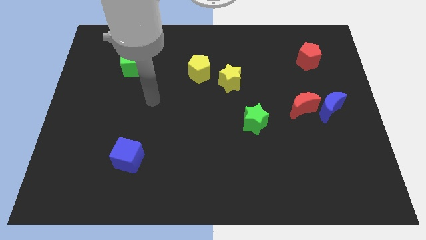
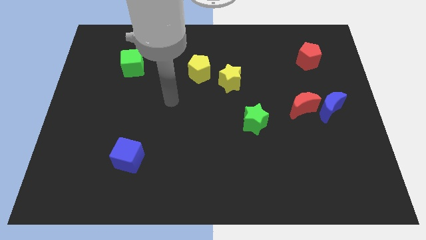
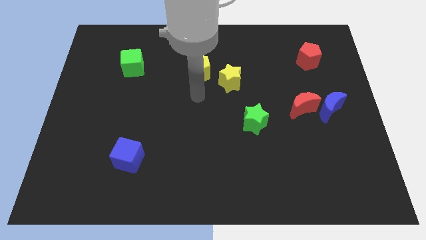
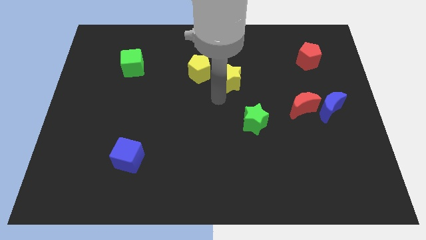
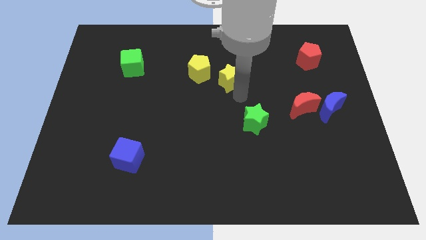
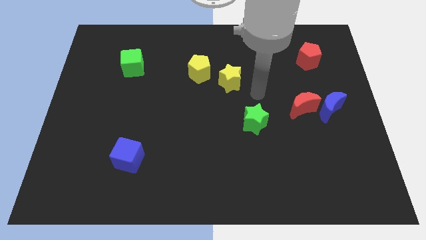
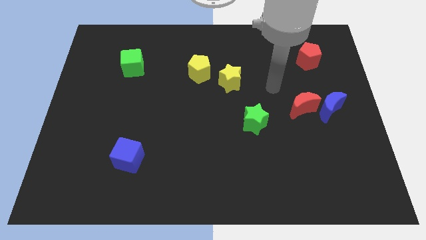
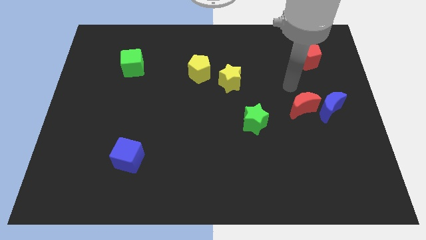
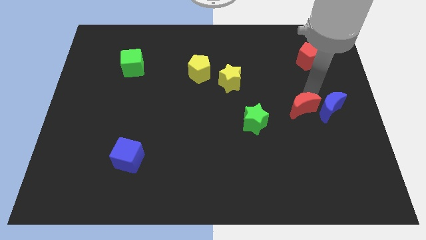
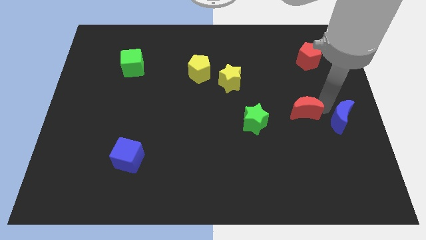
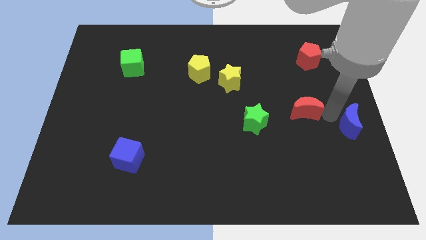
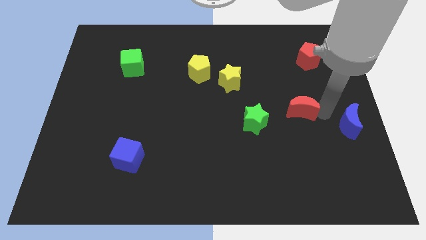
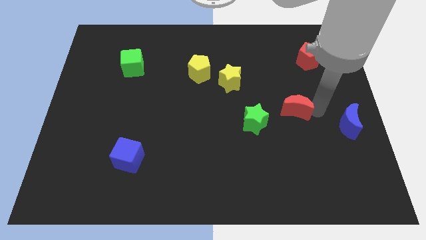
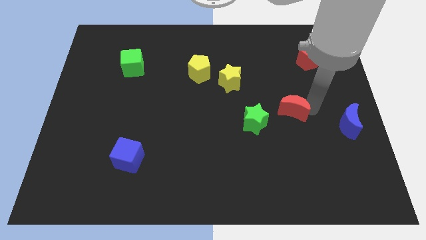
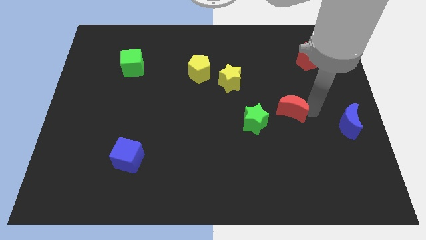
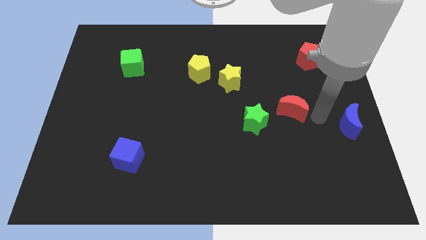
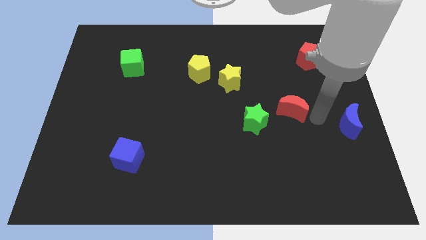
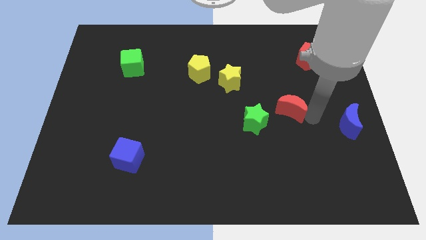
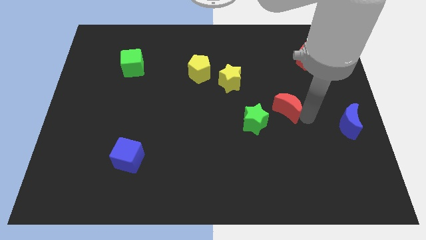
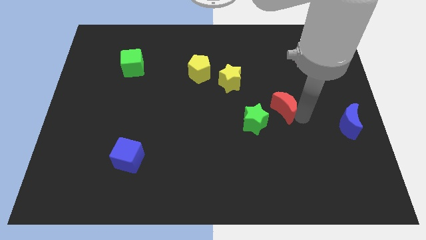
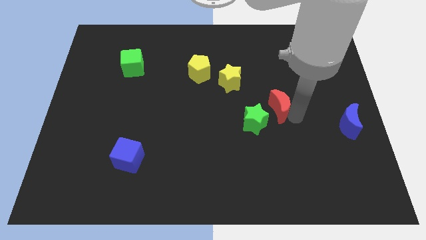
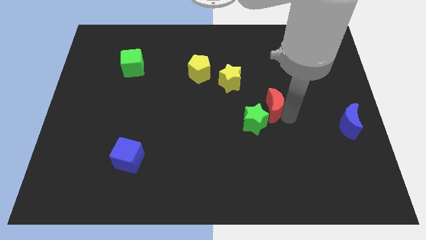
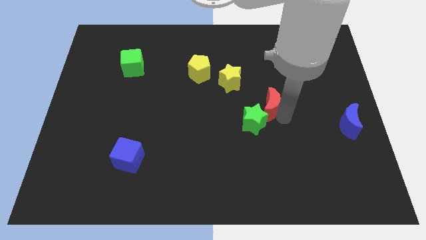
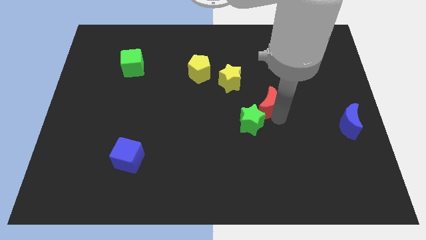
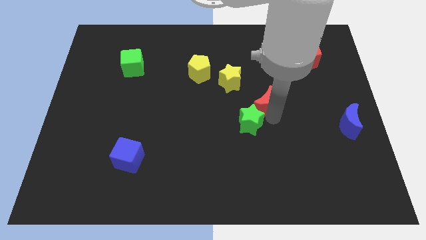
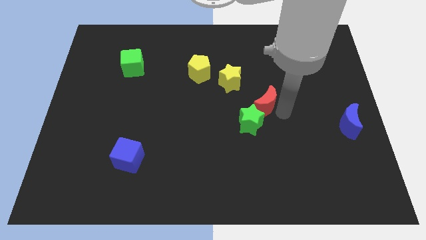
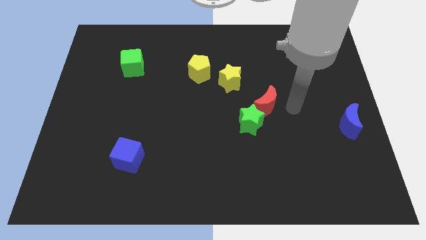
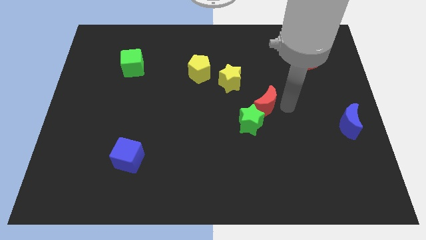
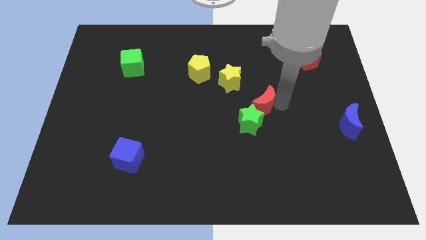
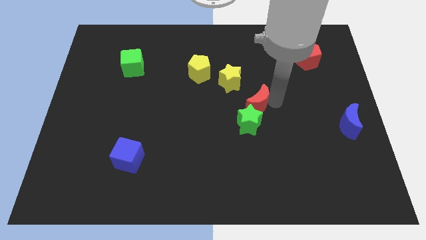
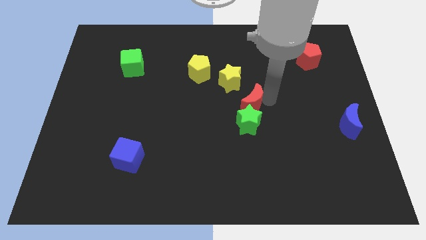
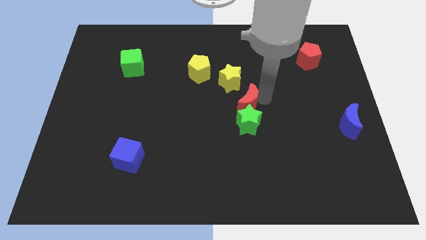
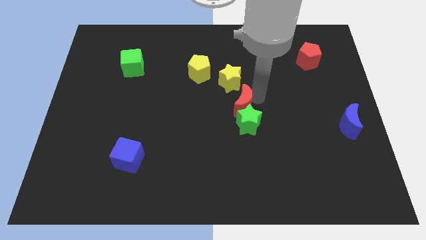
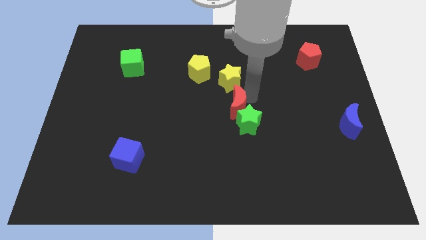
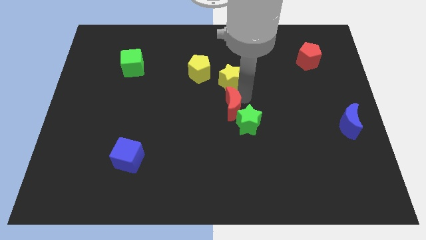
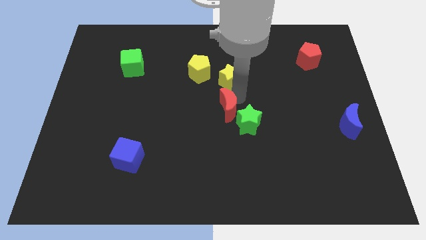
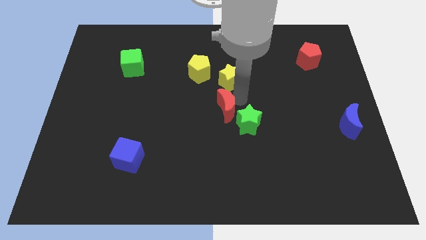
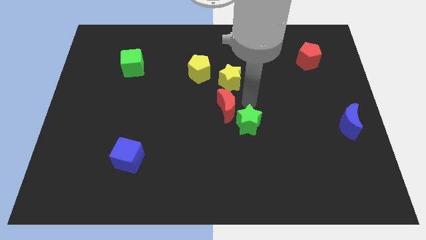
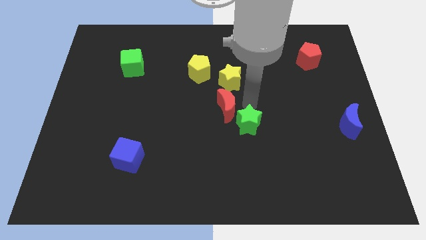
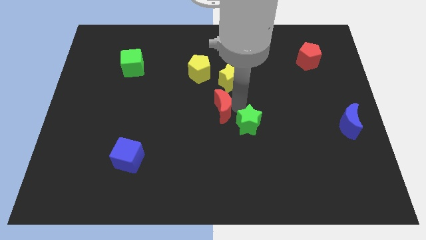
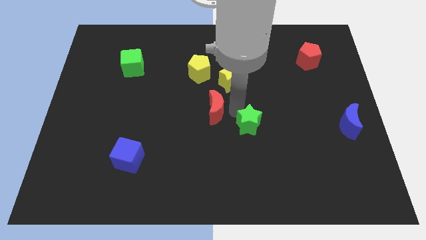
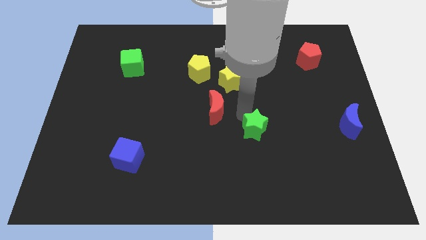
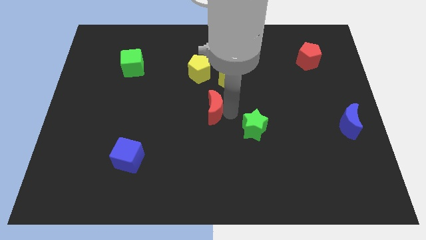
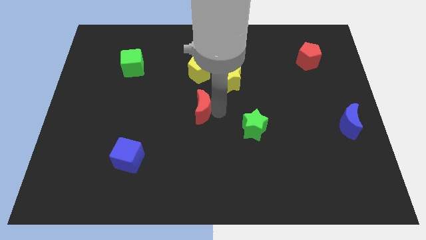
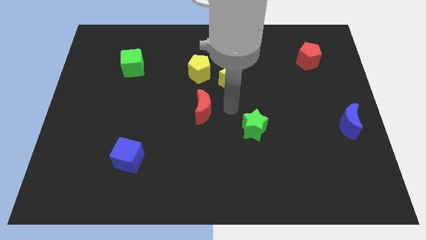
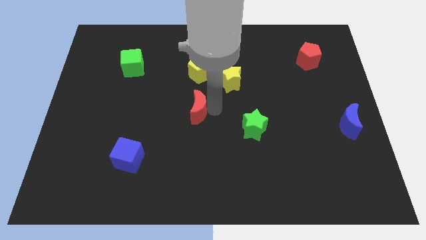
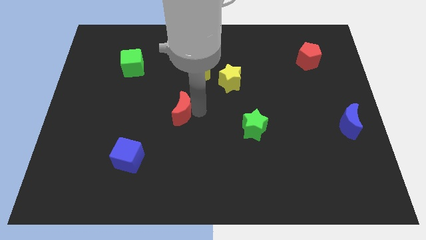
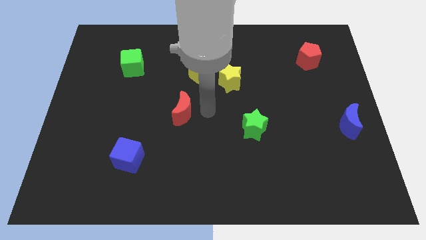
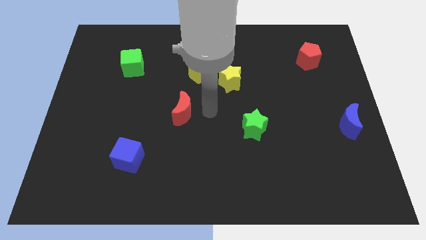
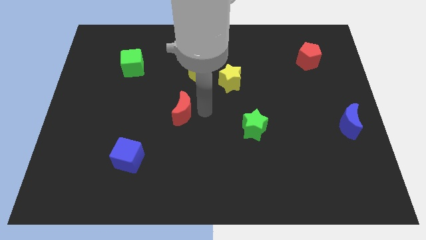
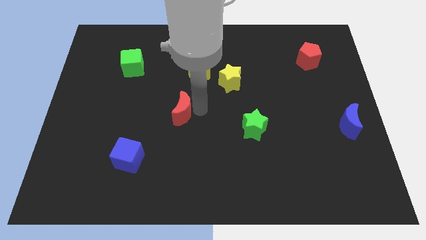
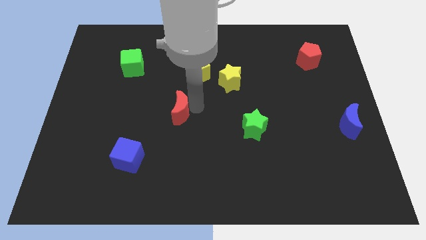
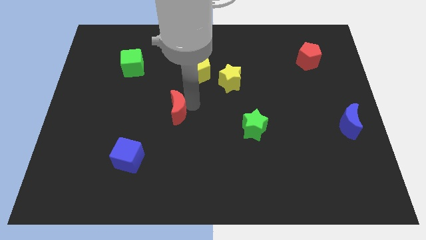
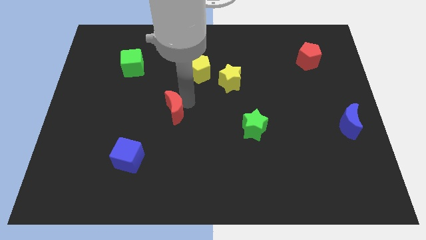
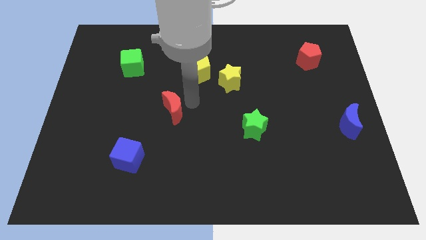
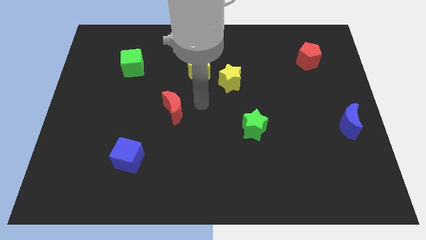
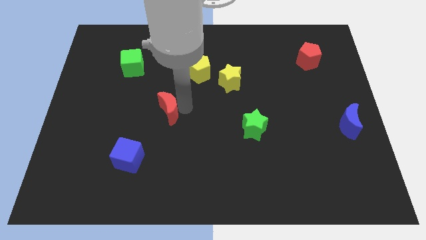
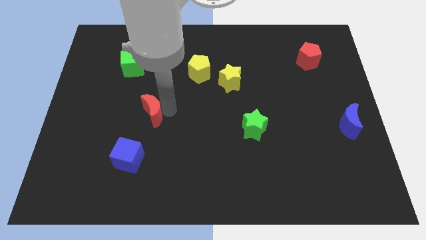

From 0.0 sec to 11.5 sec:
move the red moon to the top side of the blue cube

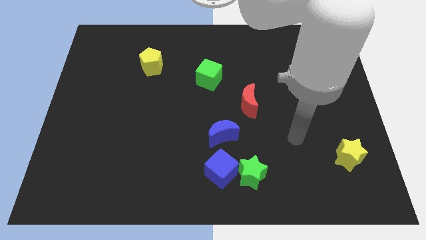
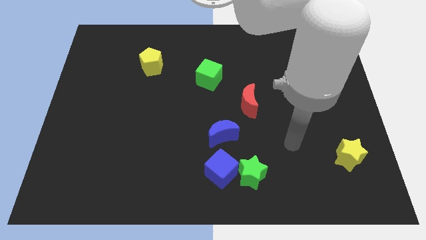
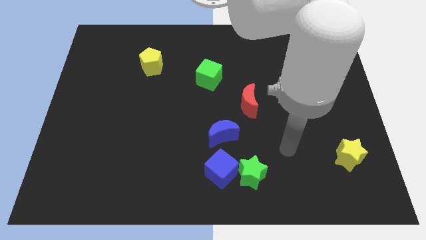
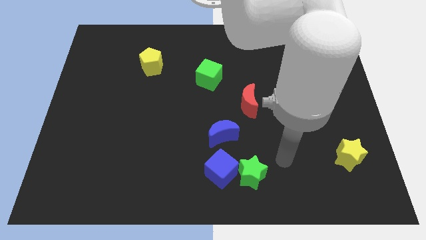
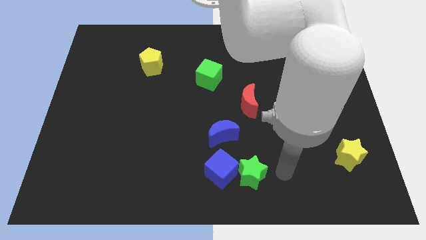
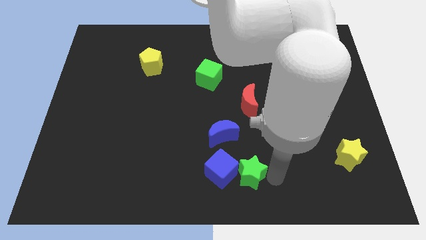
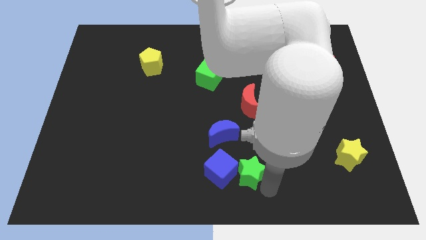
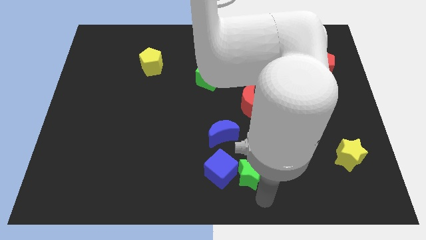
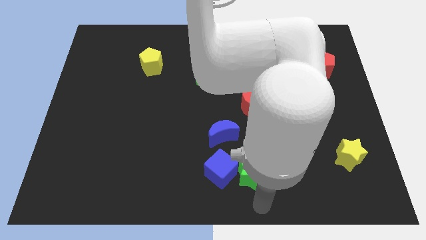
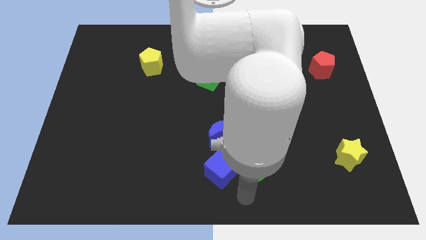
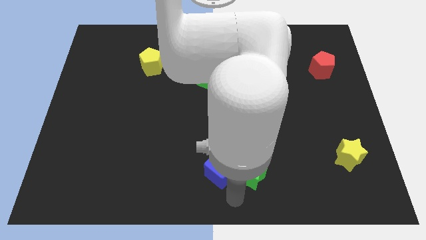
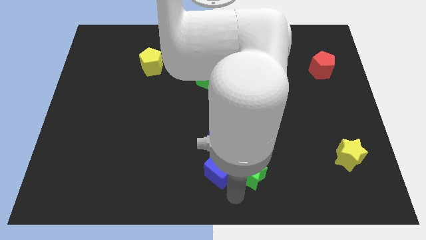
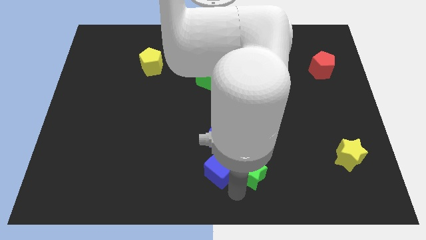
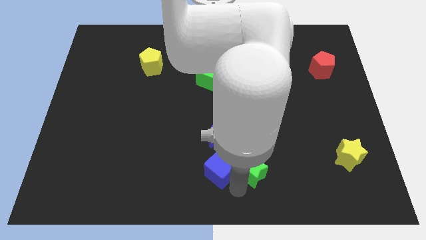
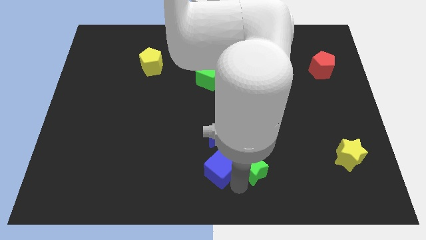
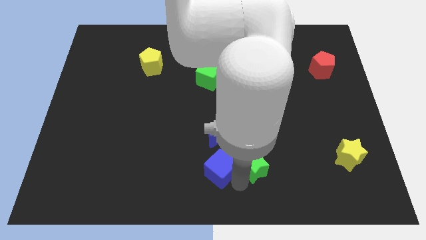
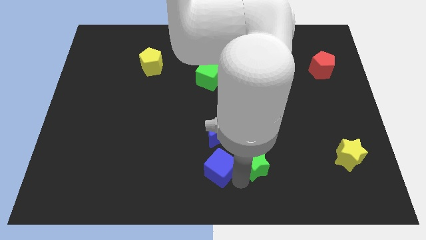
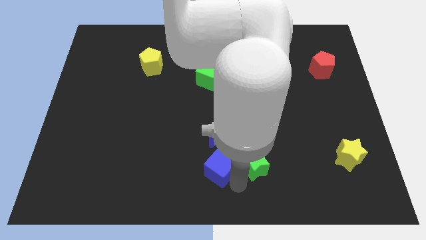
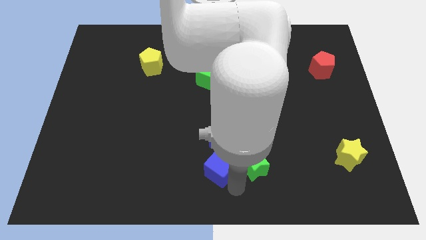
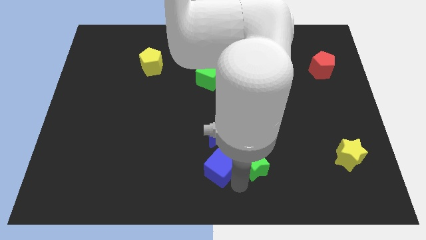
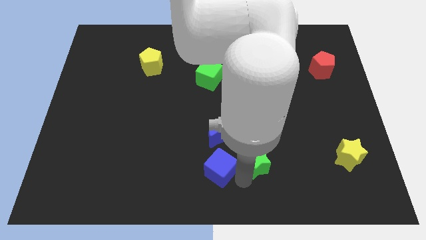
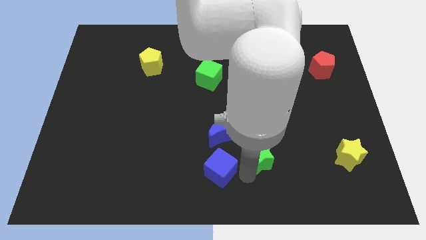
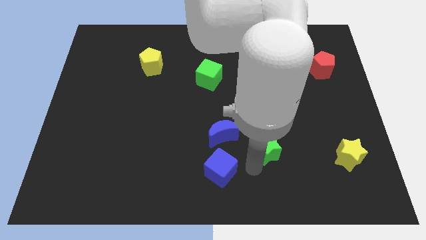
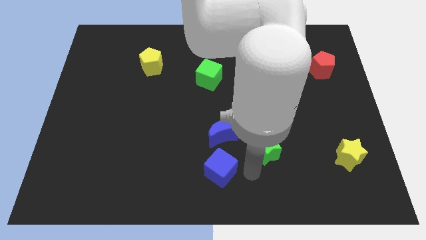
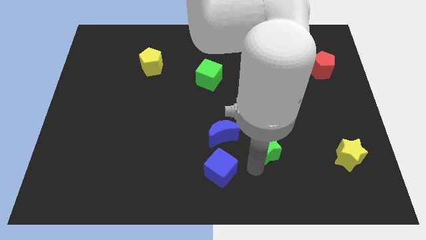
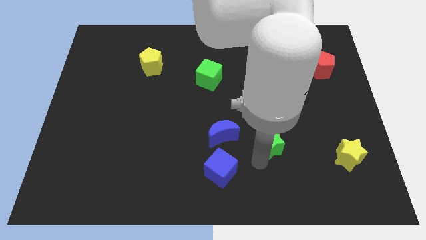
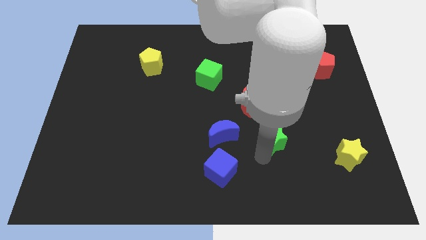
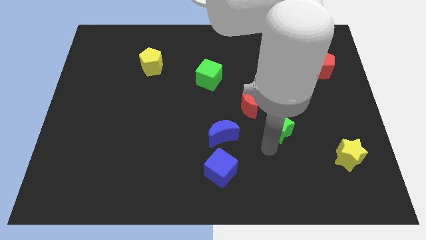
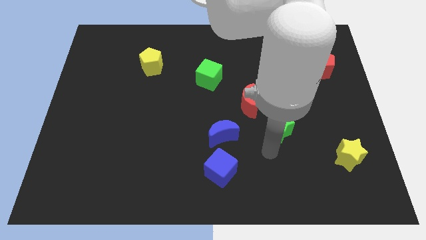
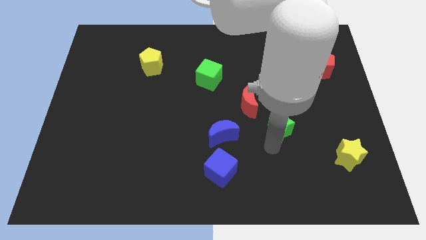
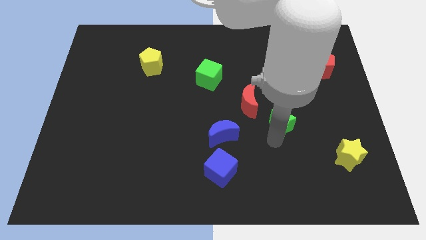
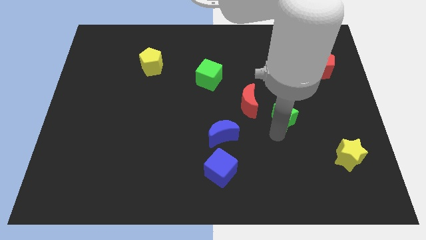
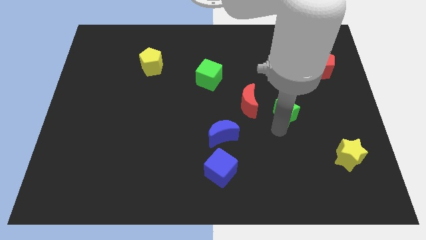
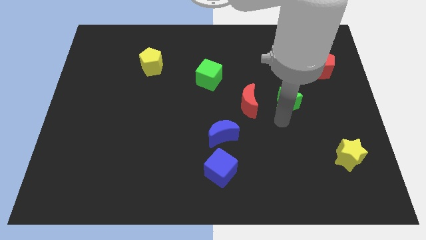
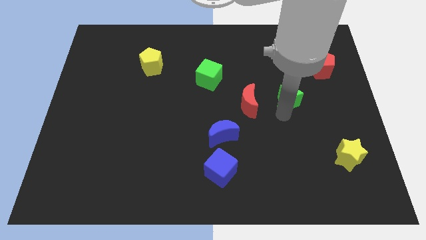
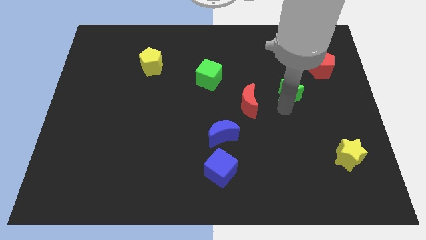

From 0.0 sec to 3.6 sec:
put the green star to the bottom left of the red pentagon
